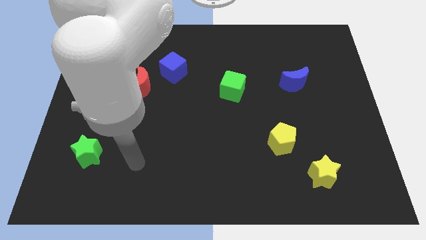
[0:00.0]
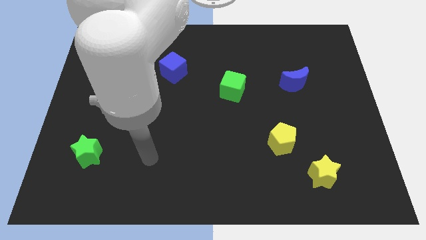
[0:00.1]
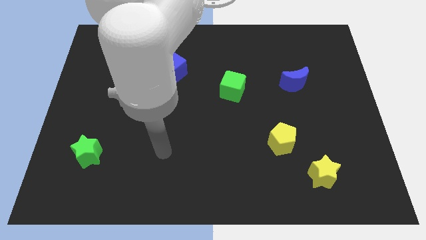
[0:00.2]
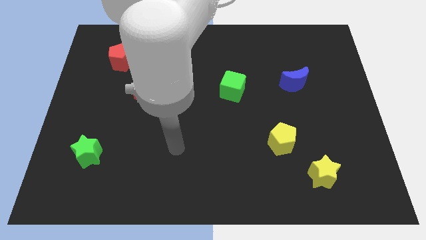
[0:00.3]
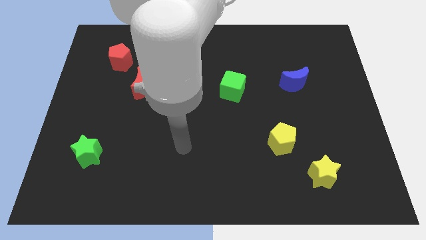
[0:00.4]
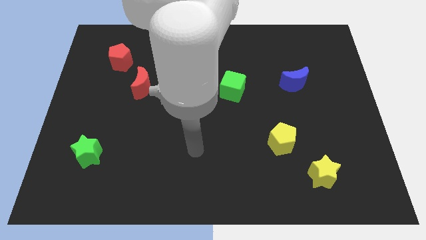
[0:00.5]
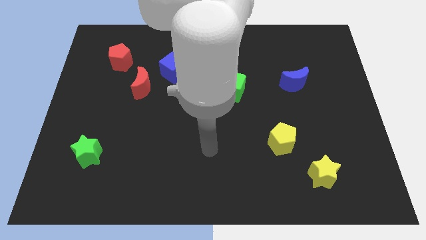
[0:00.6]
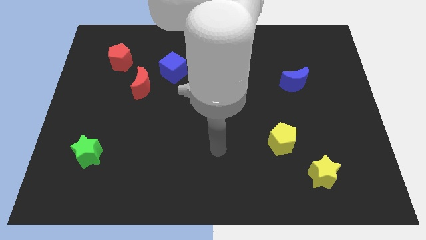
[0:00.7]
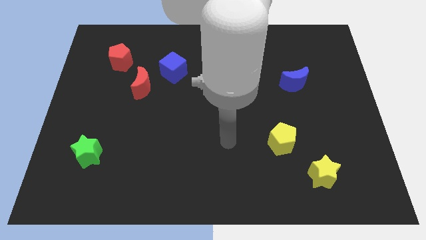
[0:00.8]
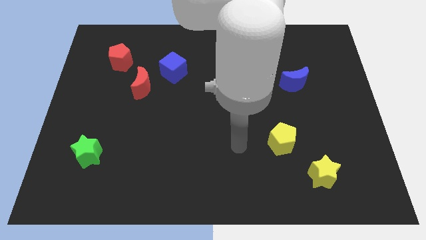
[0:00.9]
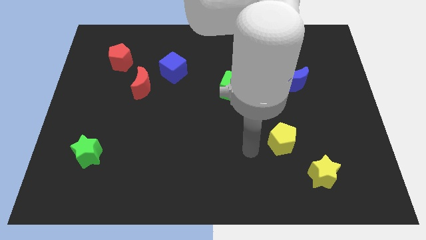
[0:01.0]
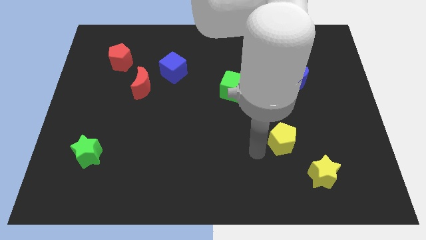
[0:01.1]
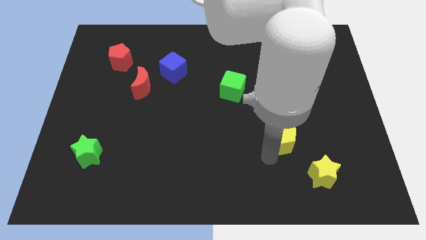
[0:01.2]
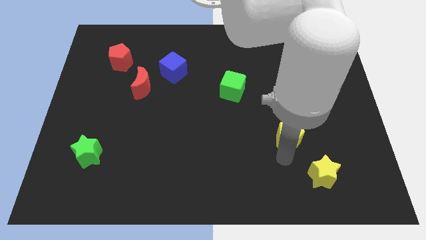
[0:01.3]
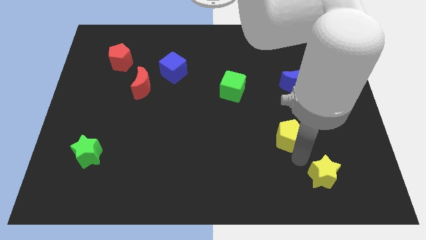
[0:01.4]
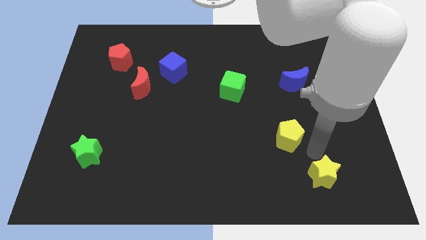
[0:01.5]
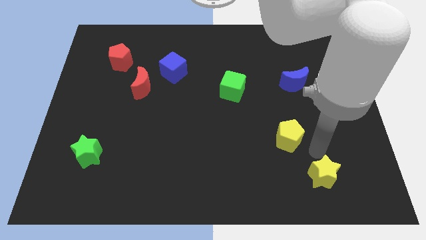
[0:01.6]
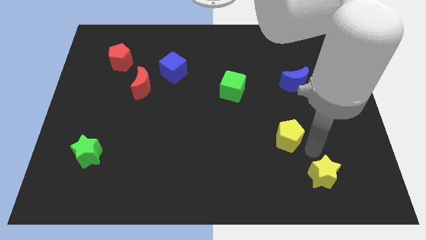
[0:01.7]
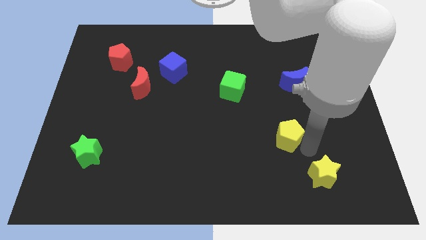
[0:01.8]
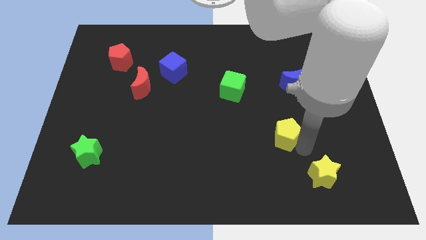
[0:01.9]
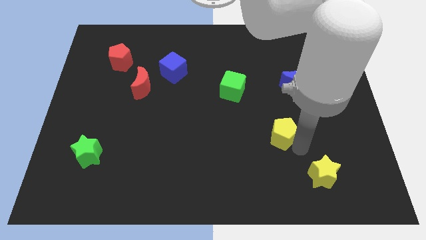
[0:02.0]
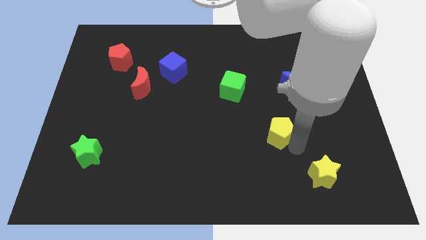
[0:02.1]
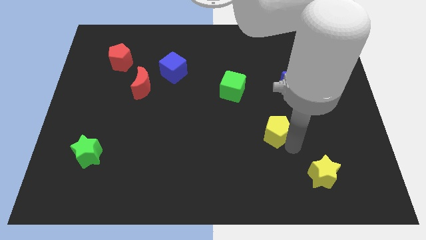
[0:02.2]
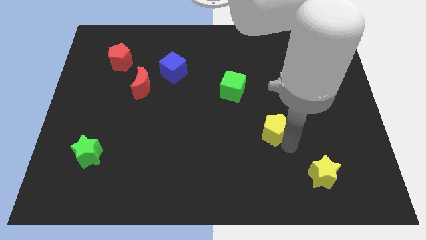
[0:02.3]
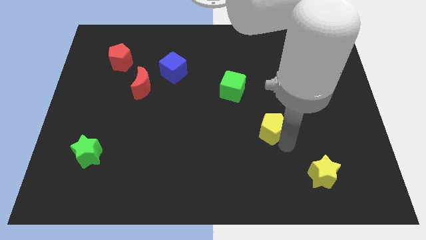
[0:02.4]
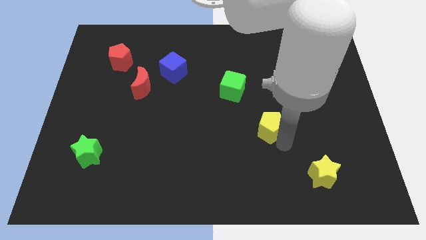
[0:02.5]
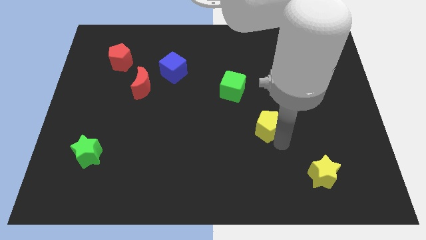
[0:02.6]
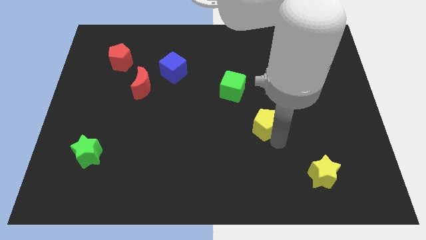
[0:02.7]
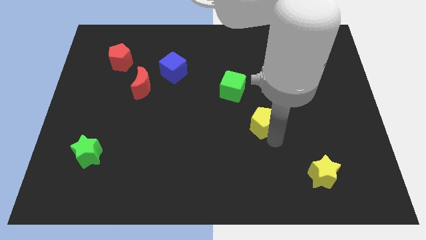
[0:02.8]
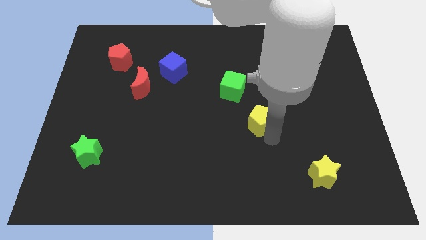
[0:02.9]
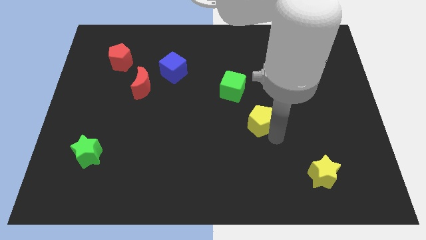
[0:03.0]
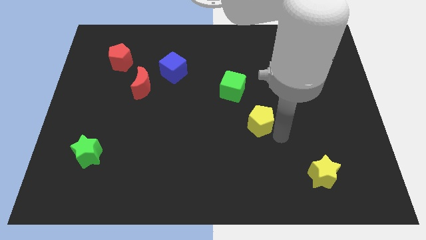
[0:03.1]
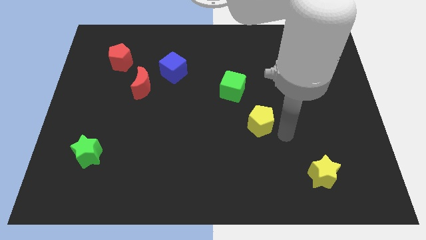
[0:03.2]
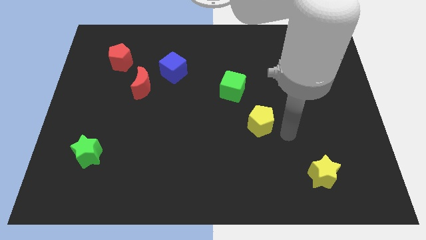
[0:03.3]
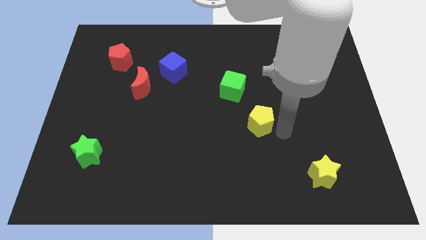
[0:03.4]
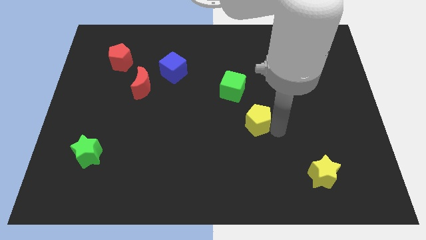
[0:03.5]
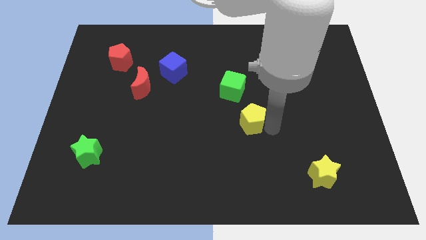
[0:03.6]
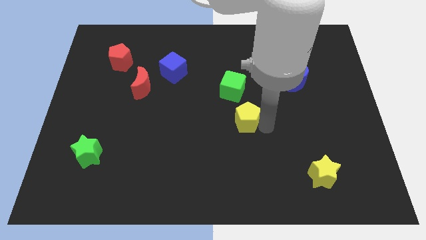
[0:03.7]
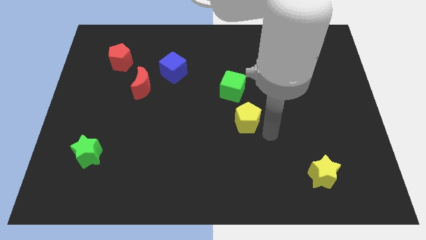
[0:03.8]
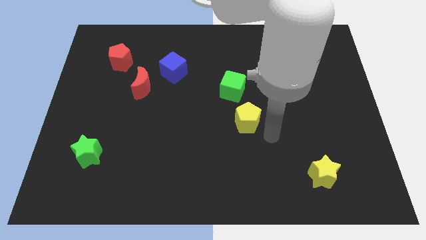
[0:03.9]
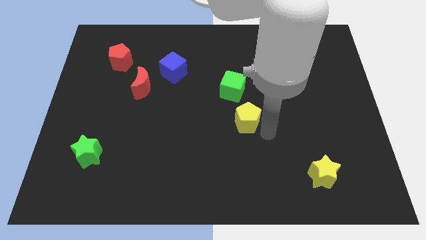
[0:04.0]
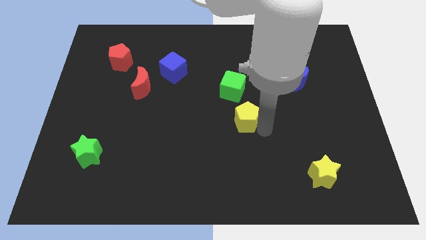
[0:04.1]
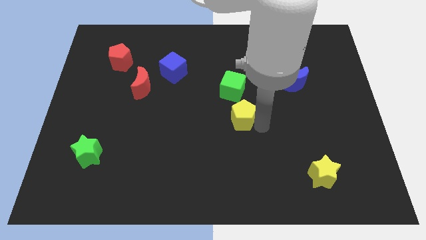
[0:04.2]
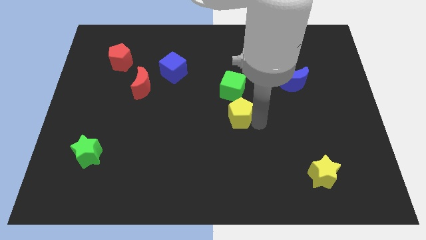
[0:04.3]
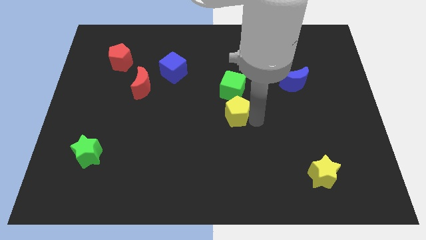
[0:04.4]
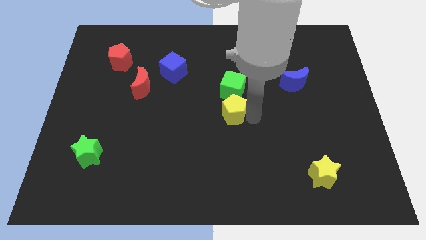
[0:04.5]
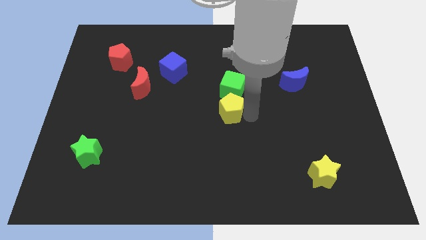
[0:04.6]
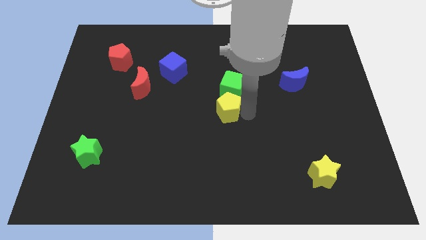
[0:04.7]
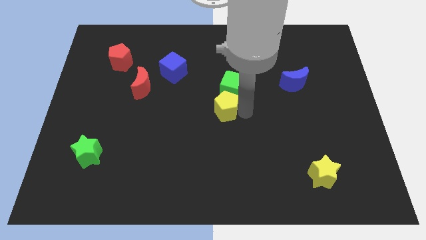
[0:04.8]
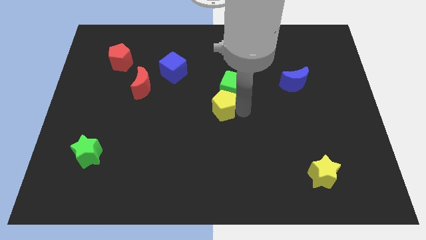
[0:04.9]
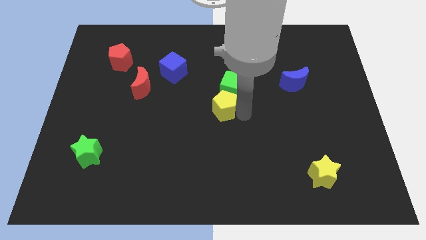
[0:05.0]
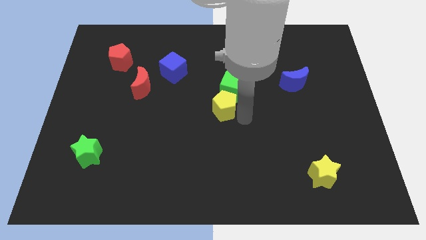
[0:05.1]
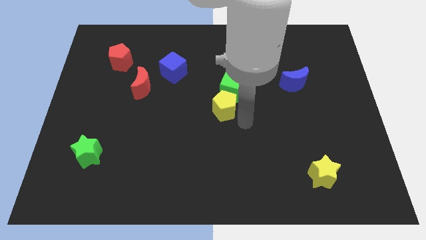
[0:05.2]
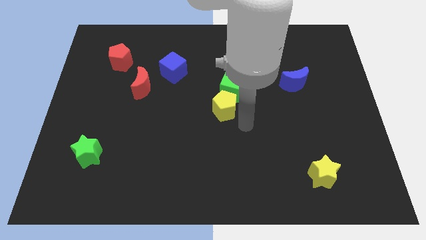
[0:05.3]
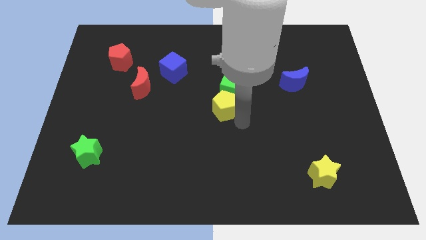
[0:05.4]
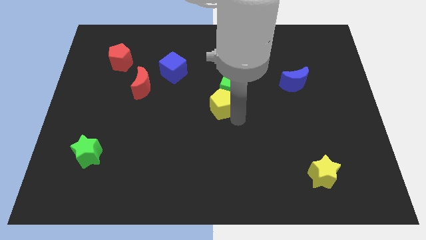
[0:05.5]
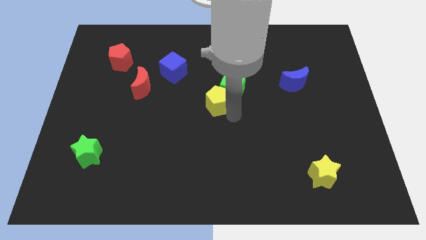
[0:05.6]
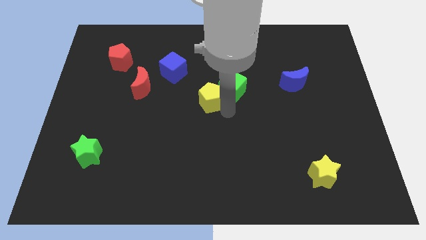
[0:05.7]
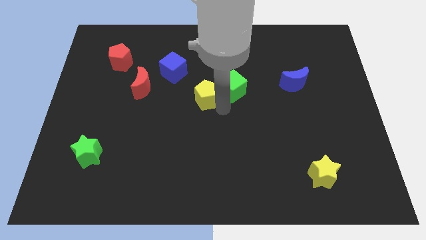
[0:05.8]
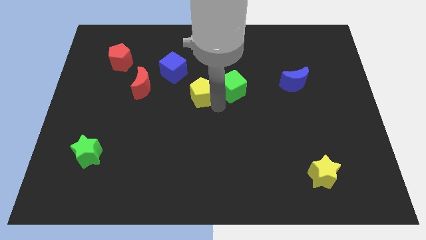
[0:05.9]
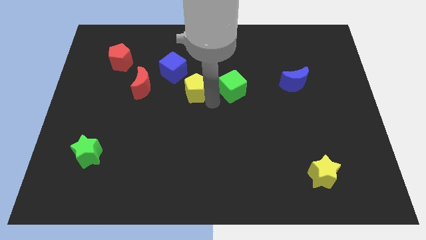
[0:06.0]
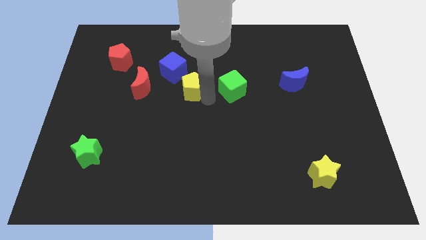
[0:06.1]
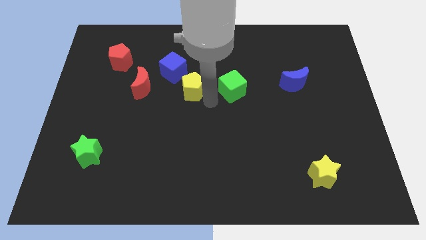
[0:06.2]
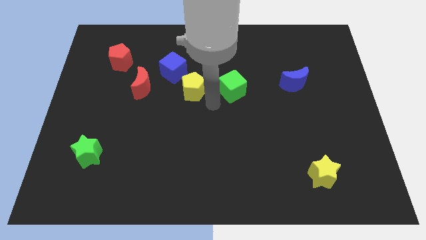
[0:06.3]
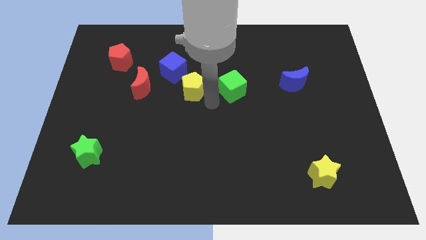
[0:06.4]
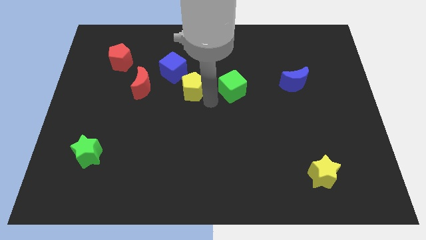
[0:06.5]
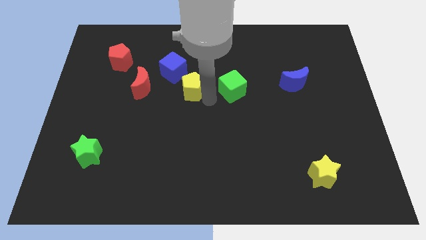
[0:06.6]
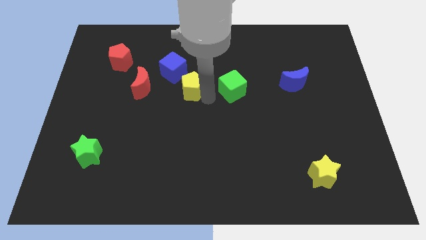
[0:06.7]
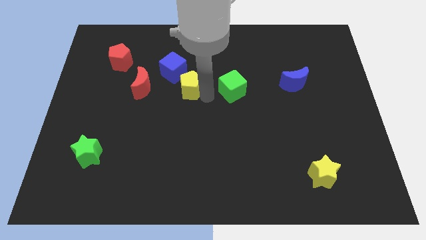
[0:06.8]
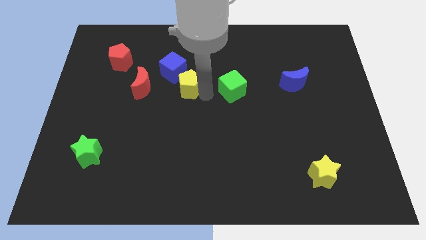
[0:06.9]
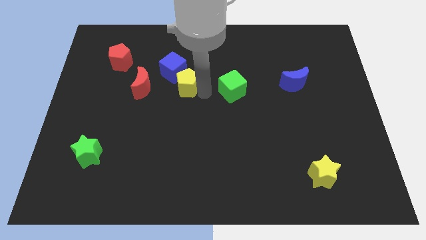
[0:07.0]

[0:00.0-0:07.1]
slide the yellow pentagon next to the blue cube

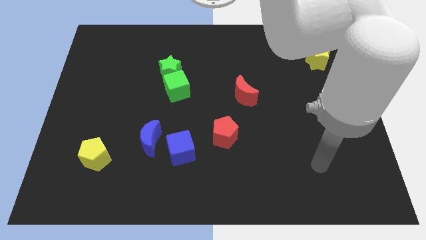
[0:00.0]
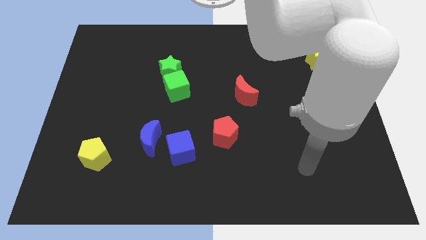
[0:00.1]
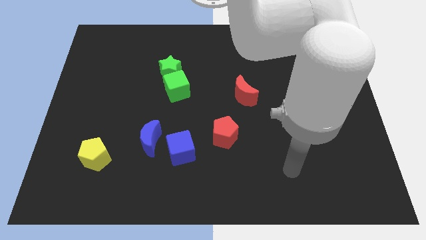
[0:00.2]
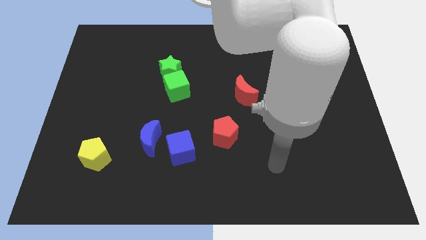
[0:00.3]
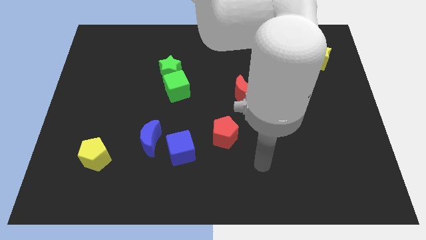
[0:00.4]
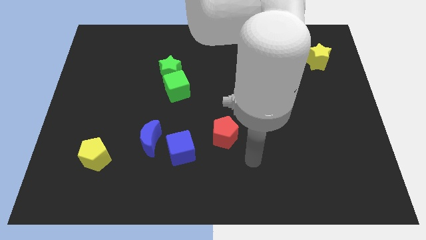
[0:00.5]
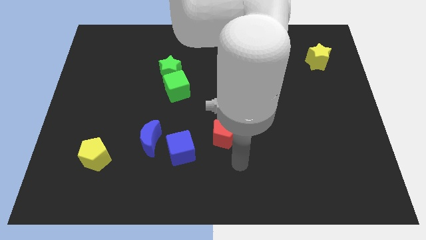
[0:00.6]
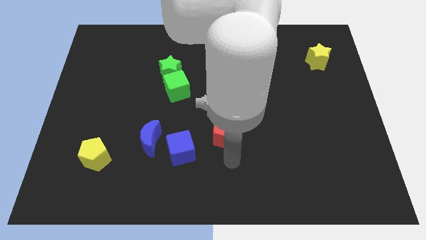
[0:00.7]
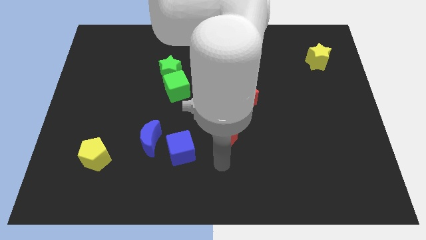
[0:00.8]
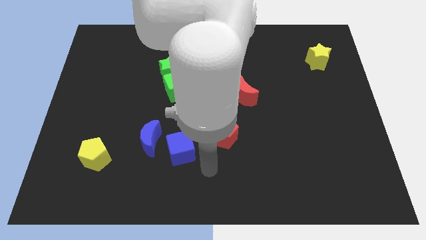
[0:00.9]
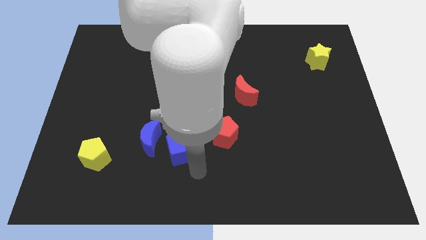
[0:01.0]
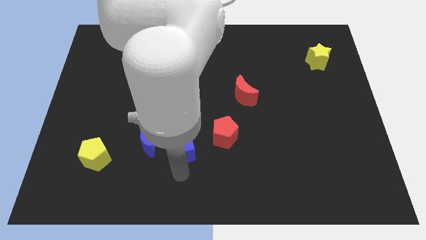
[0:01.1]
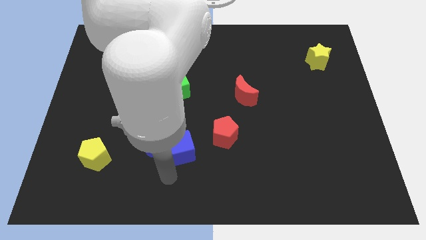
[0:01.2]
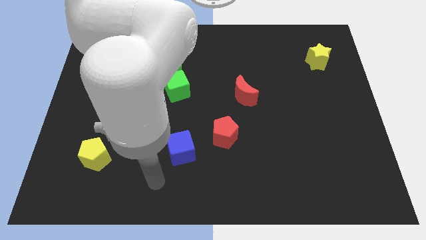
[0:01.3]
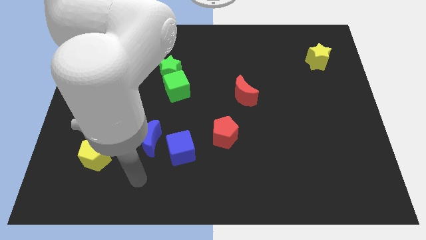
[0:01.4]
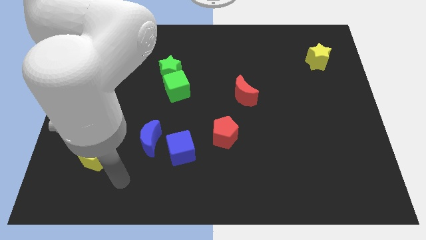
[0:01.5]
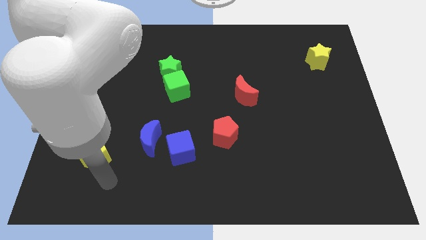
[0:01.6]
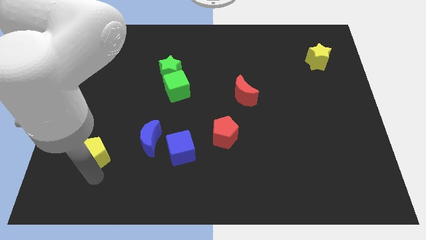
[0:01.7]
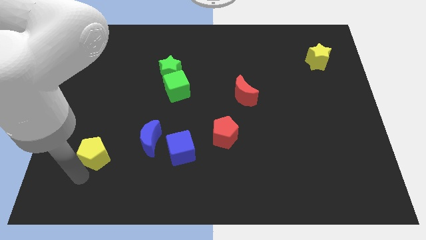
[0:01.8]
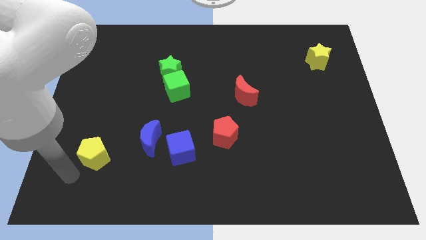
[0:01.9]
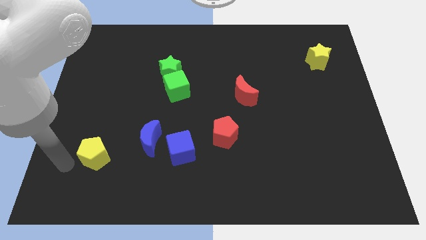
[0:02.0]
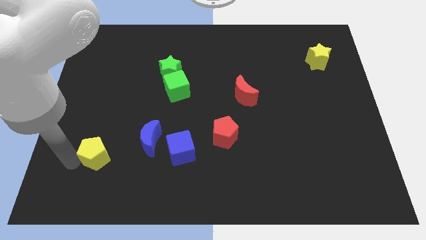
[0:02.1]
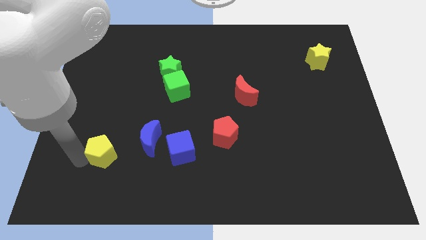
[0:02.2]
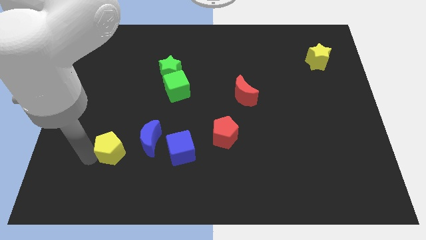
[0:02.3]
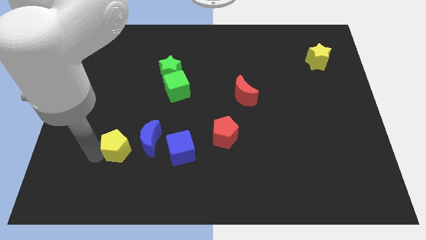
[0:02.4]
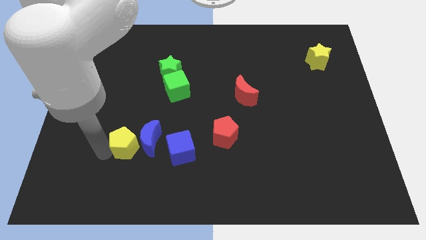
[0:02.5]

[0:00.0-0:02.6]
push the yellow pentagon close to the blue moon
